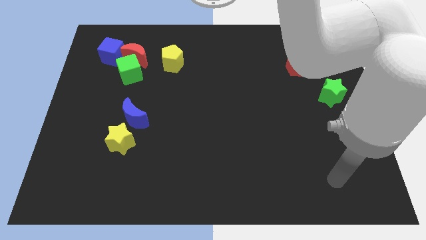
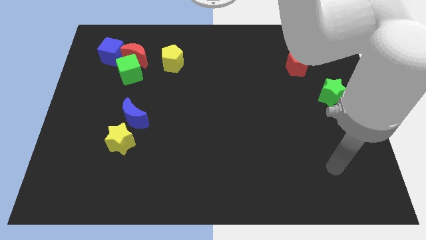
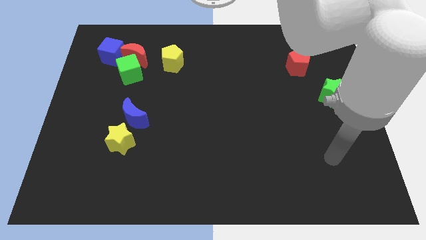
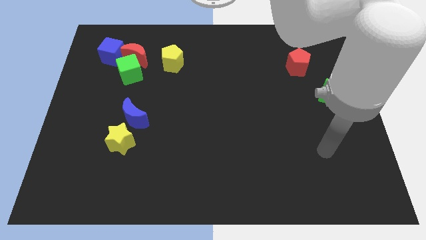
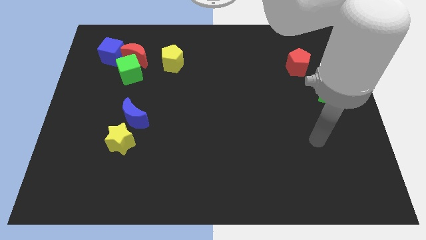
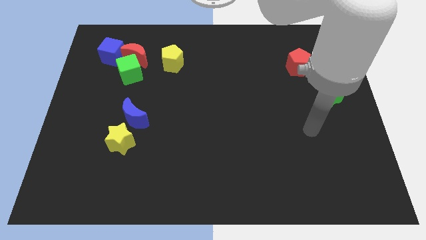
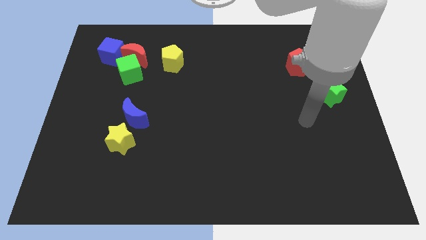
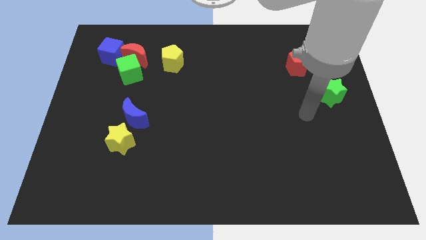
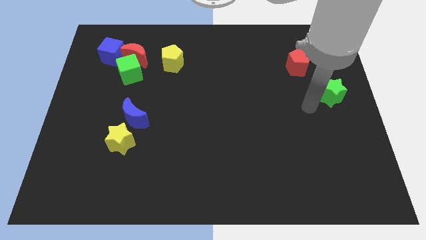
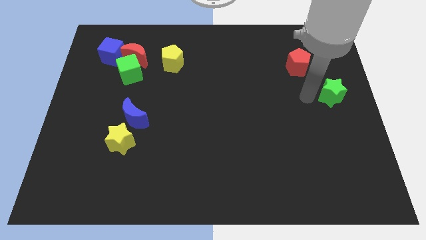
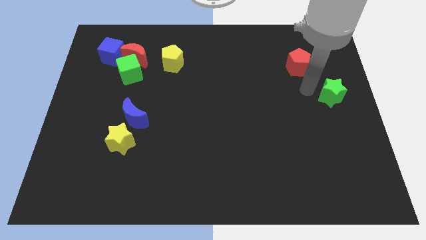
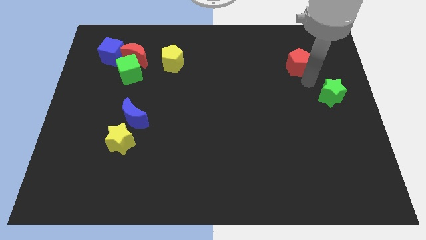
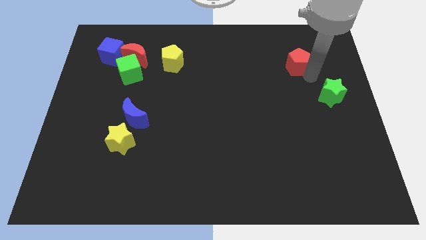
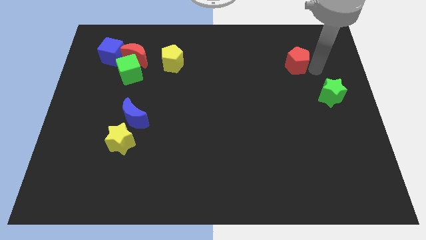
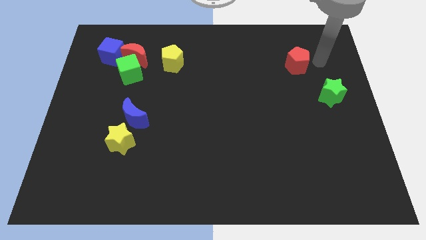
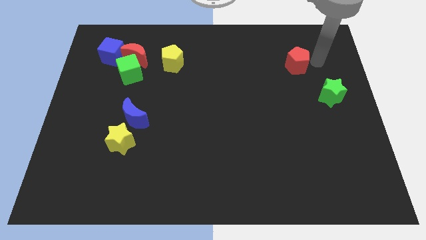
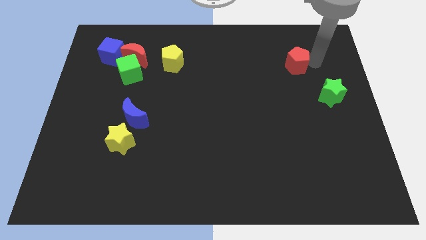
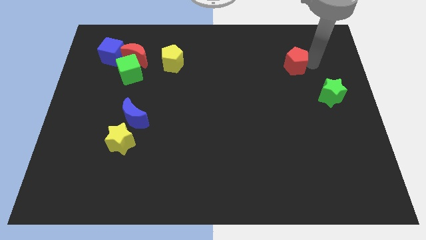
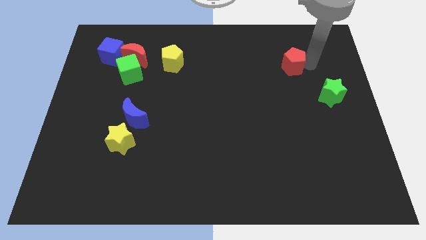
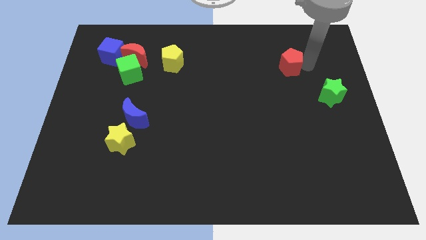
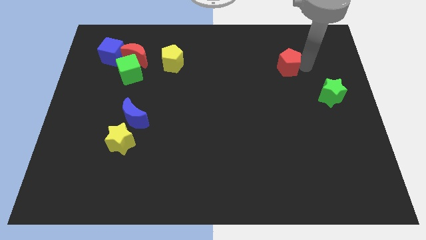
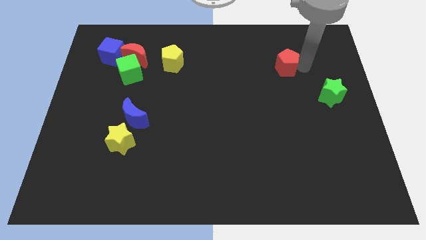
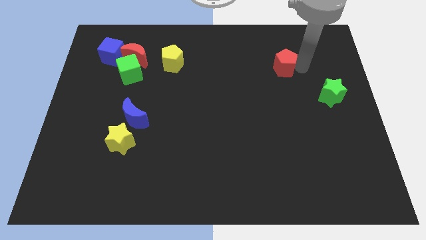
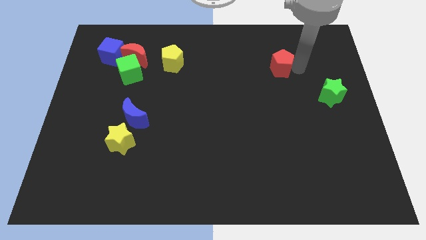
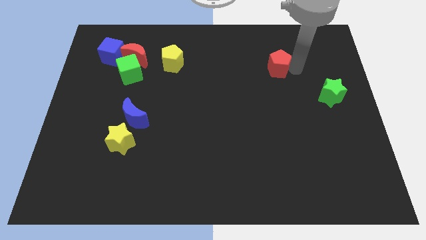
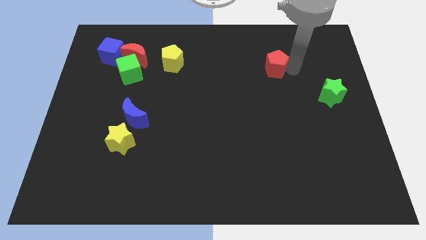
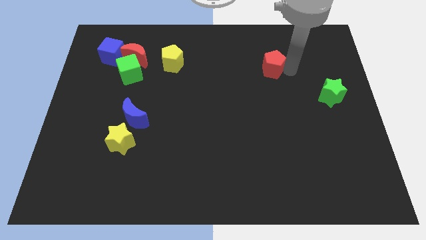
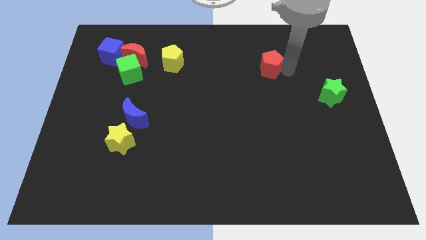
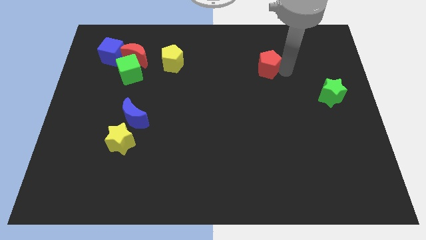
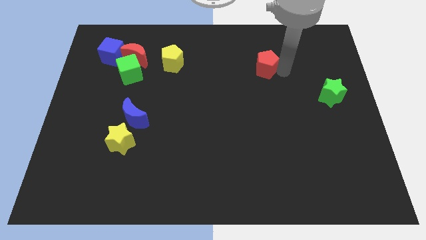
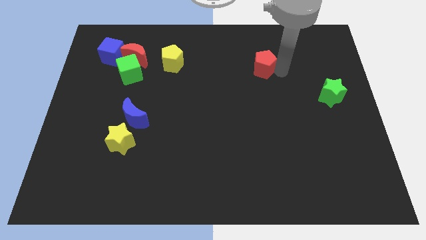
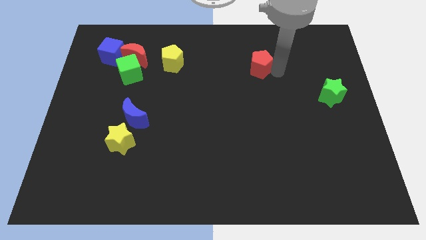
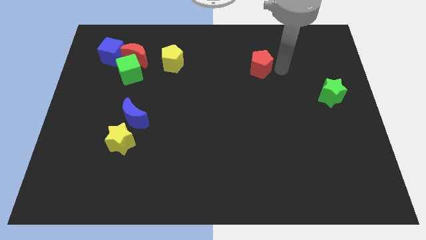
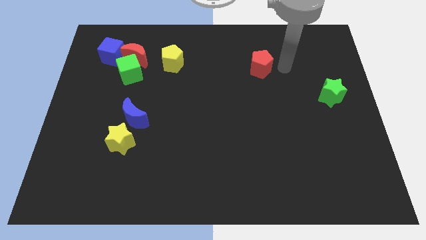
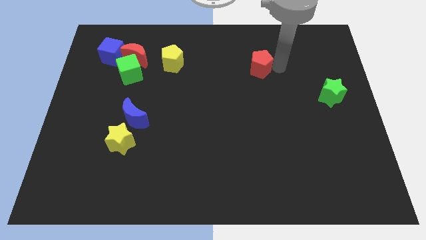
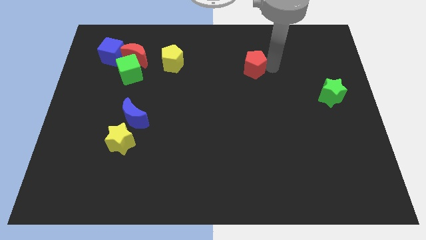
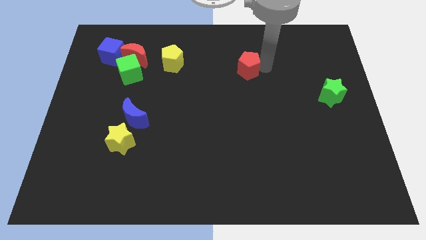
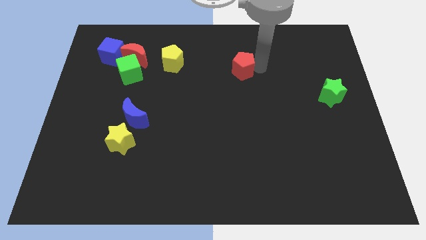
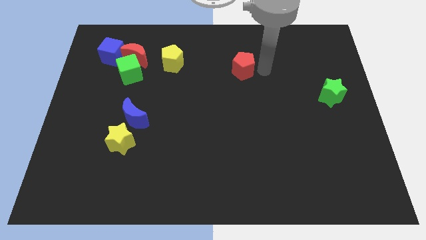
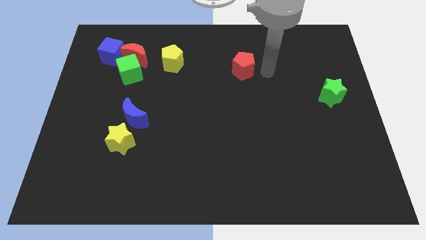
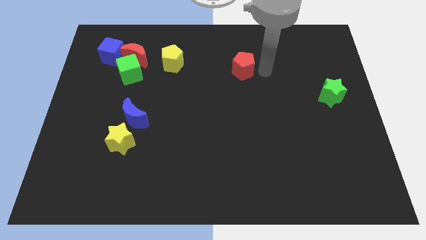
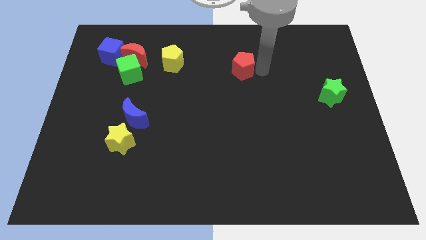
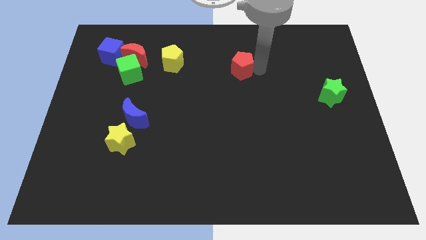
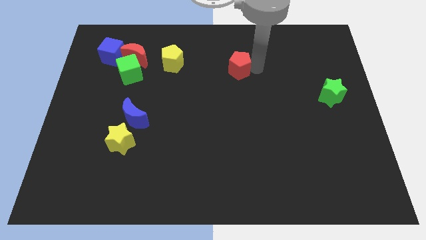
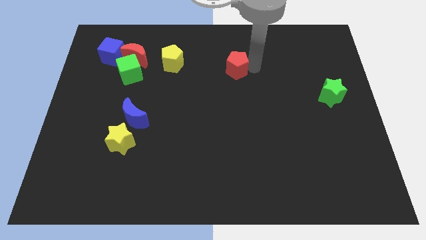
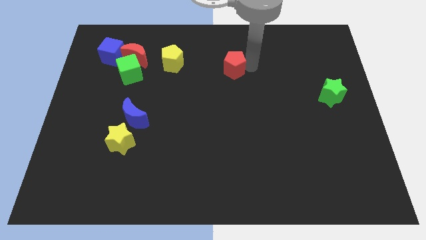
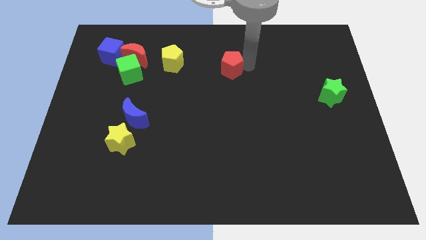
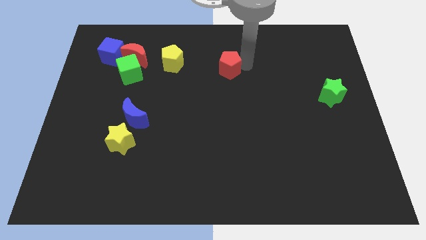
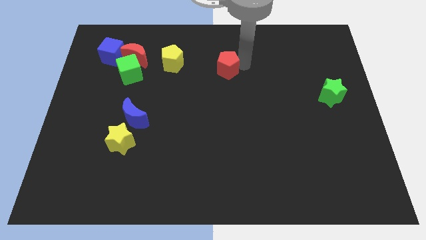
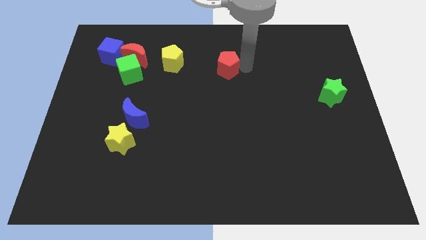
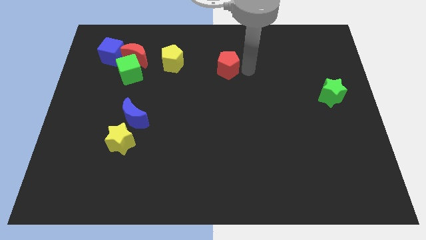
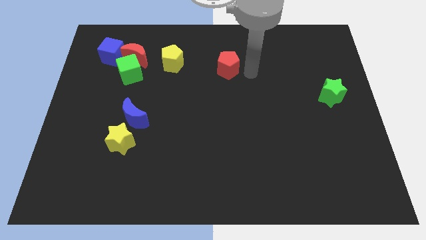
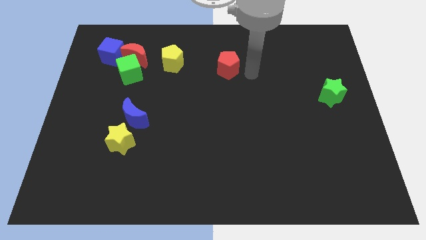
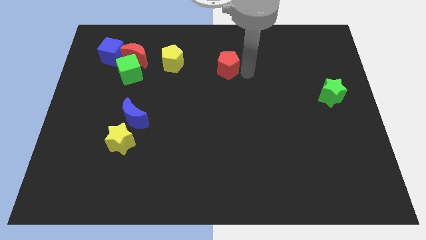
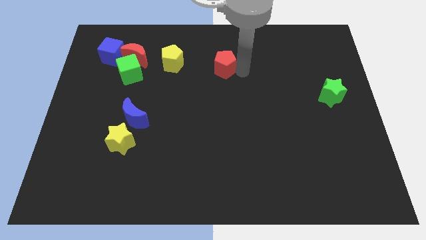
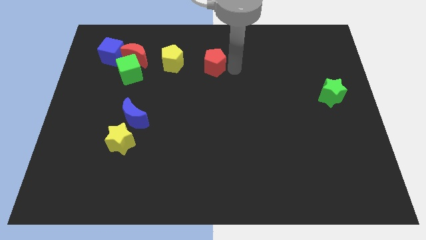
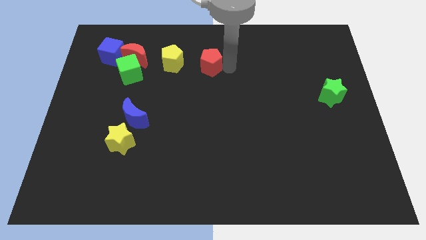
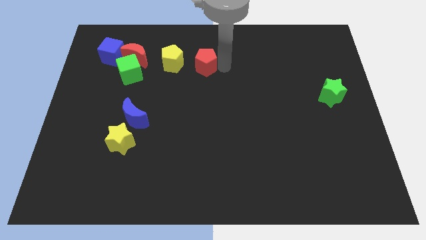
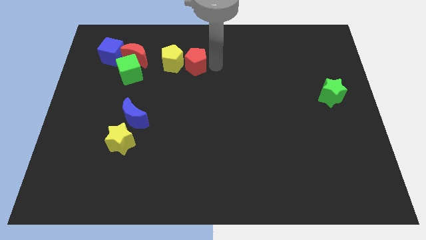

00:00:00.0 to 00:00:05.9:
move the red pentagon to the yellow pentagon

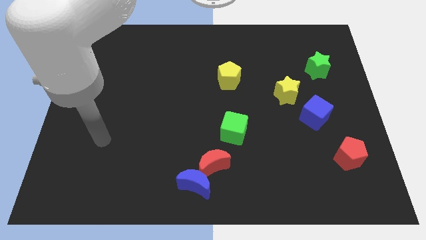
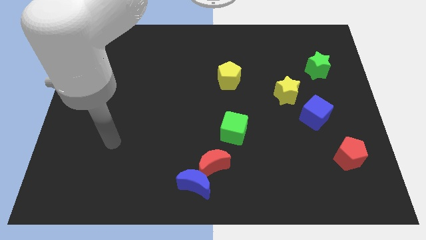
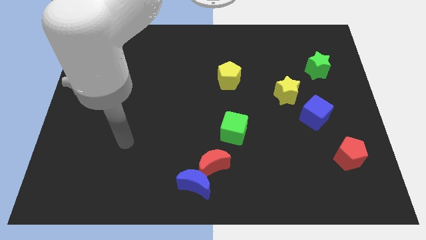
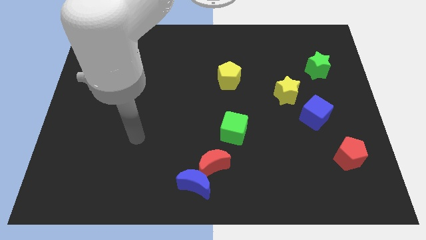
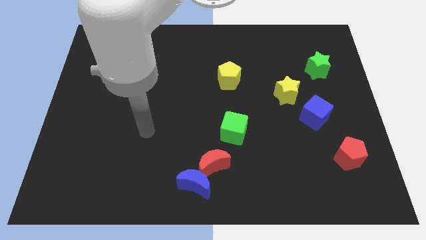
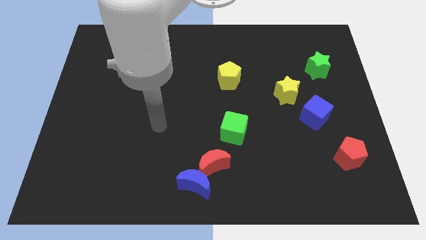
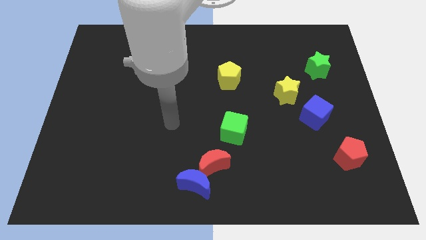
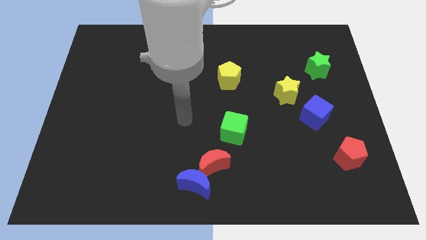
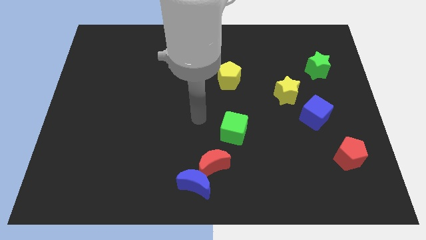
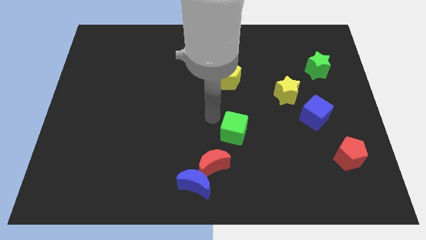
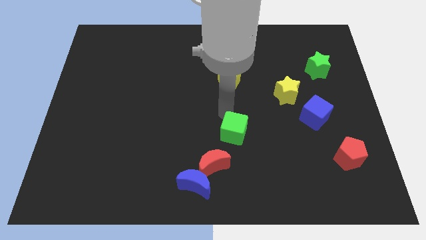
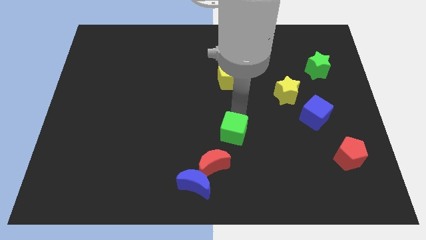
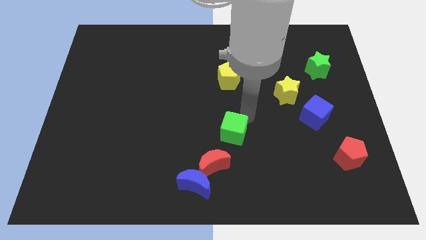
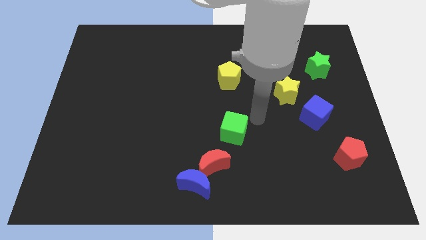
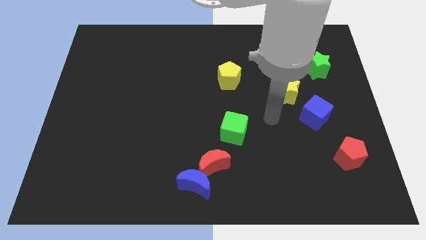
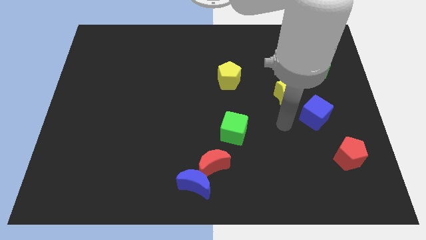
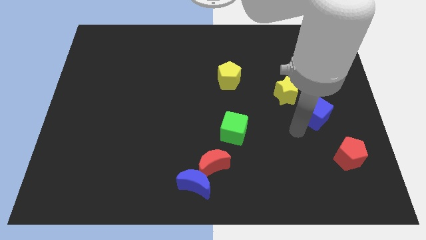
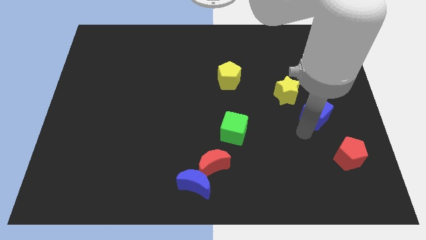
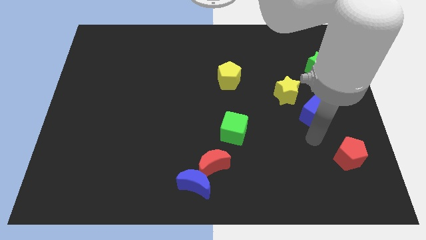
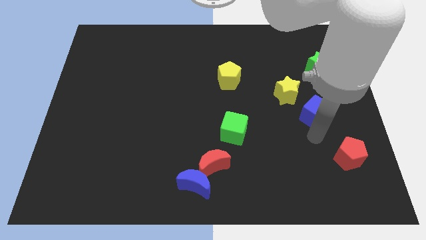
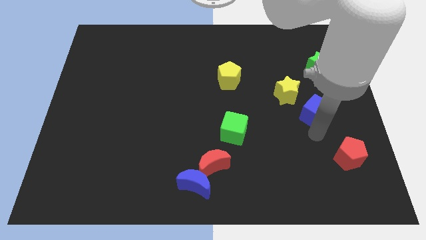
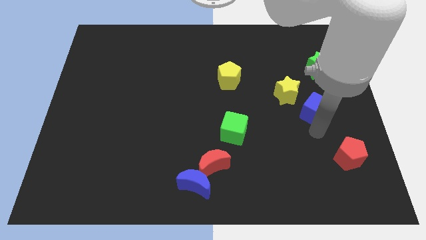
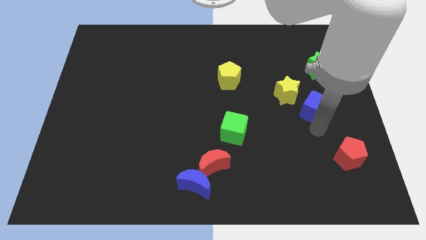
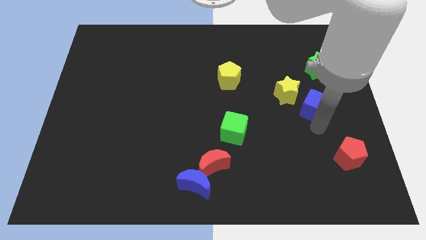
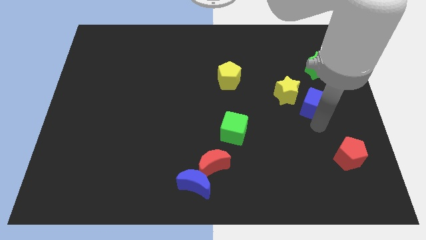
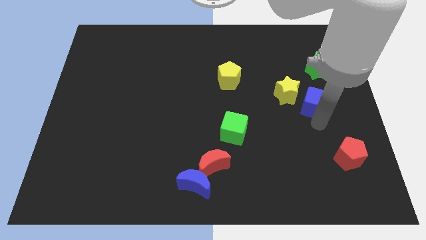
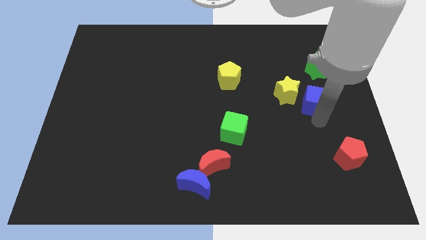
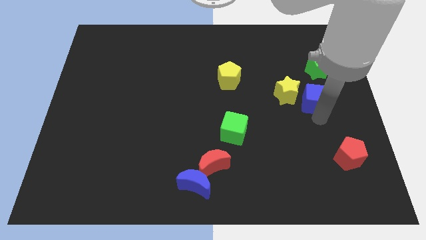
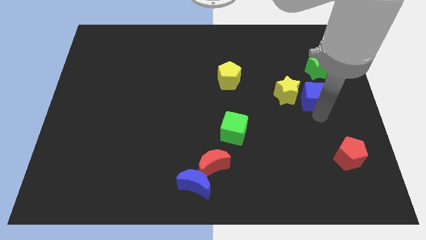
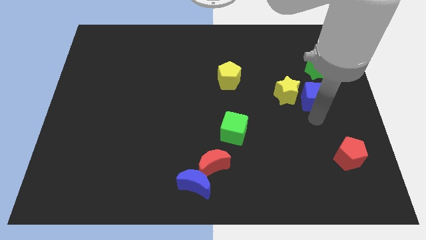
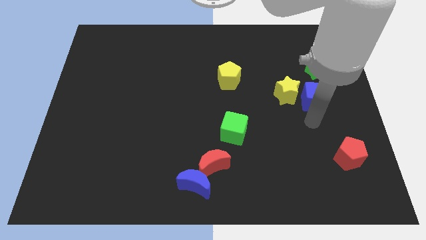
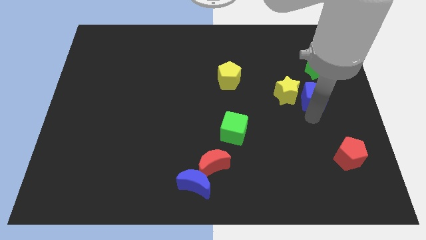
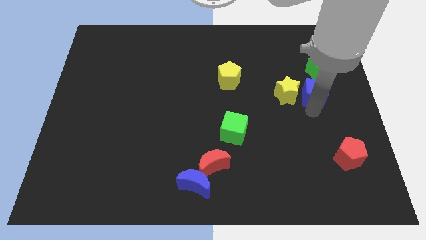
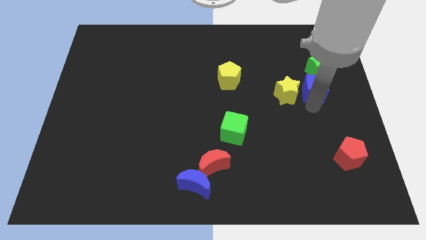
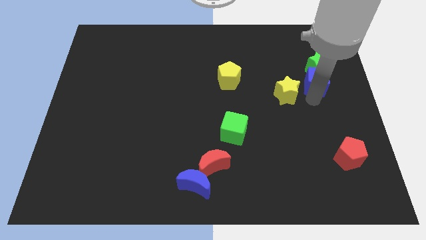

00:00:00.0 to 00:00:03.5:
put the blue cube close to the green star
